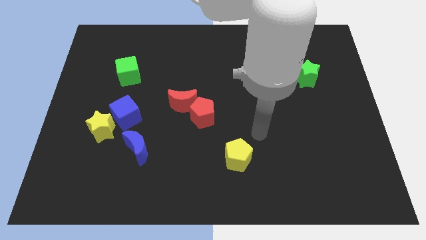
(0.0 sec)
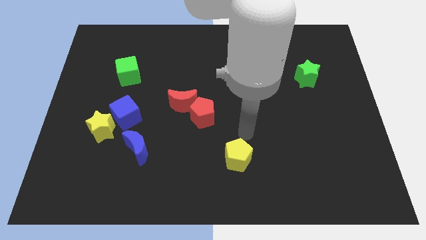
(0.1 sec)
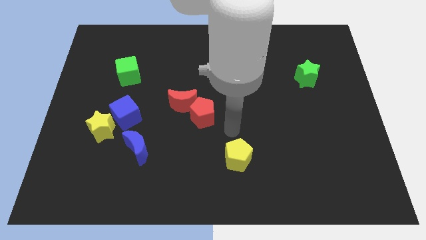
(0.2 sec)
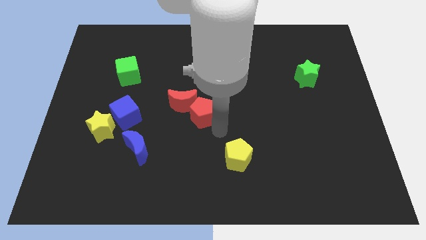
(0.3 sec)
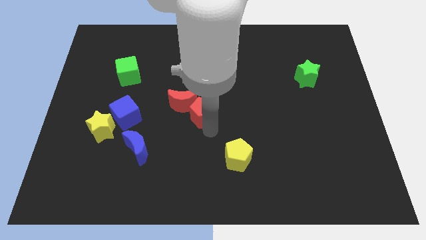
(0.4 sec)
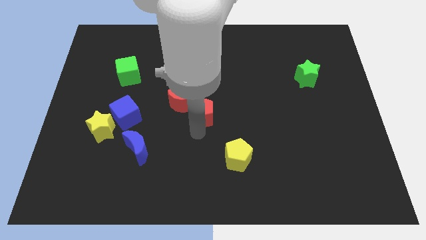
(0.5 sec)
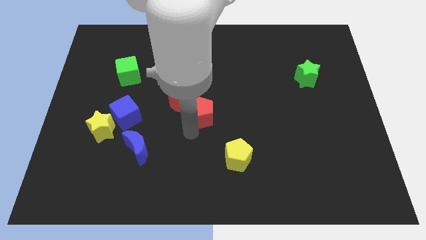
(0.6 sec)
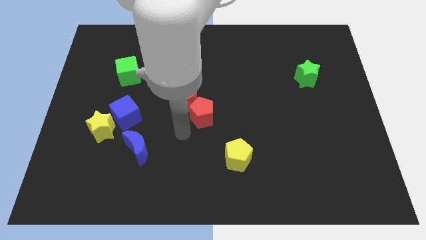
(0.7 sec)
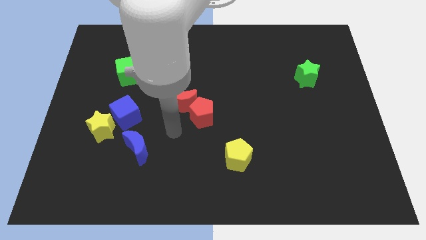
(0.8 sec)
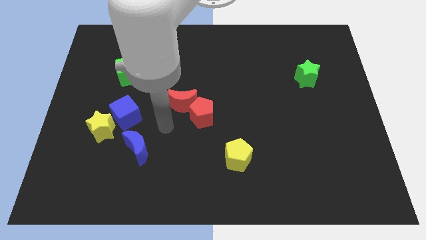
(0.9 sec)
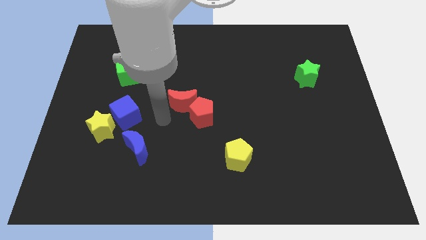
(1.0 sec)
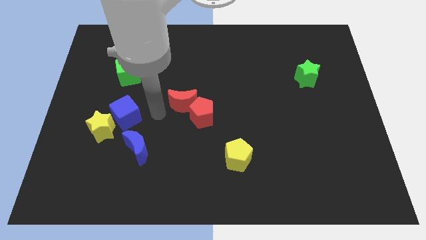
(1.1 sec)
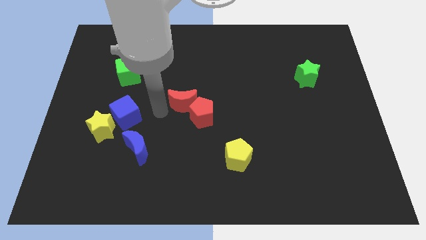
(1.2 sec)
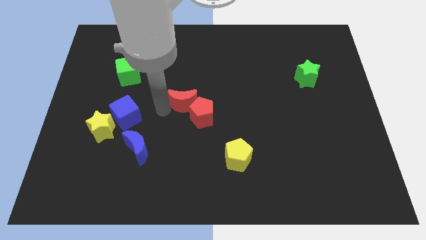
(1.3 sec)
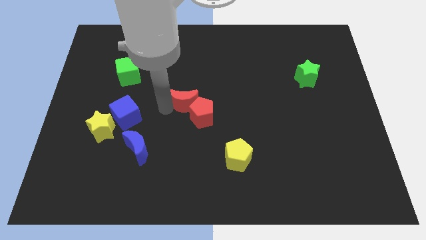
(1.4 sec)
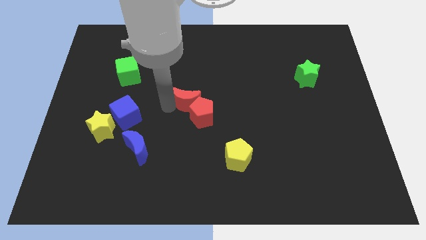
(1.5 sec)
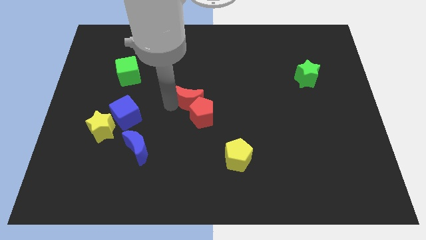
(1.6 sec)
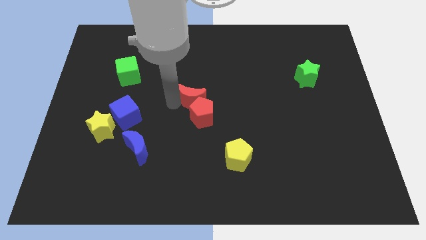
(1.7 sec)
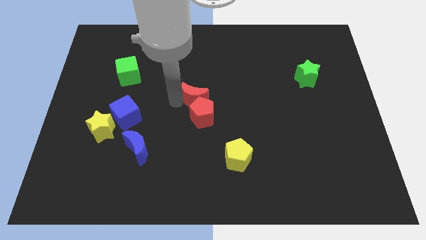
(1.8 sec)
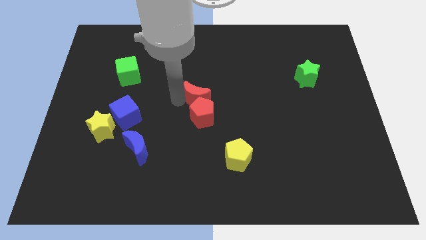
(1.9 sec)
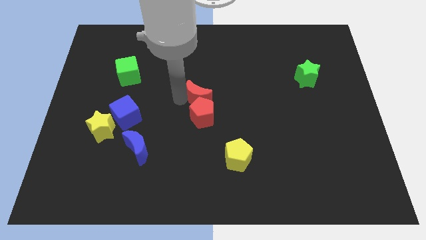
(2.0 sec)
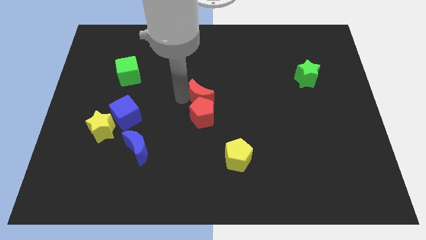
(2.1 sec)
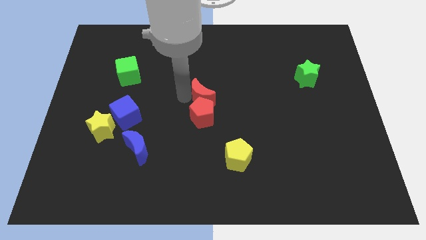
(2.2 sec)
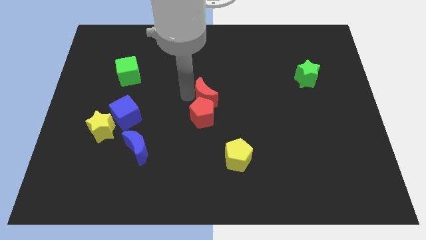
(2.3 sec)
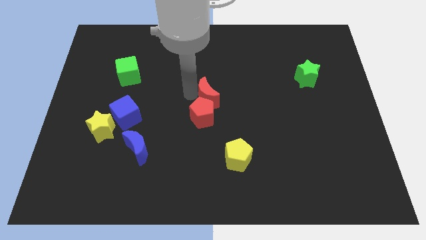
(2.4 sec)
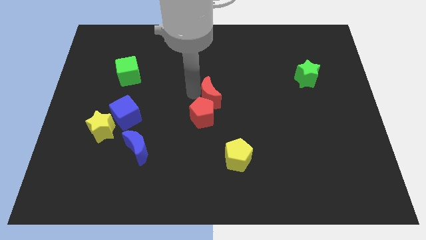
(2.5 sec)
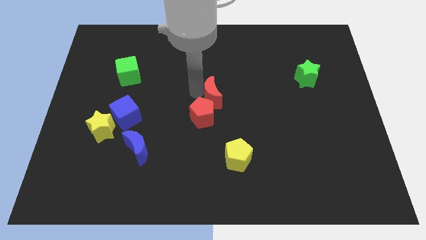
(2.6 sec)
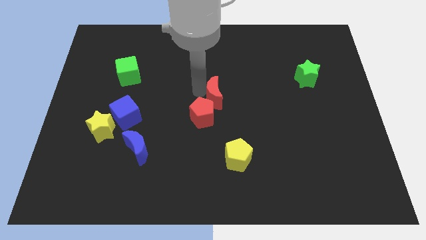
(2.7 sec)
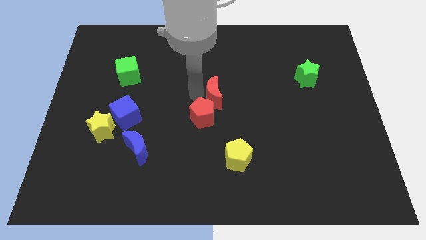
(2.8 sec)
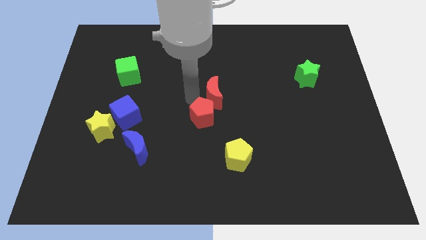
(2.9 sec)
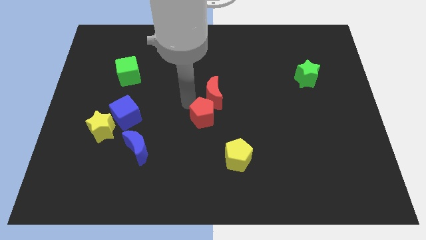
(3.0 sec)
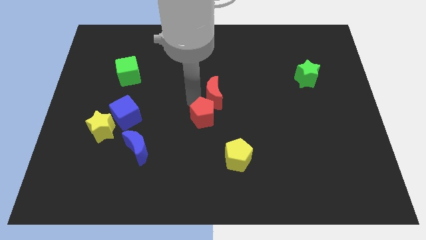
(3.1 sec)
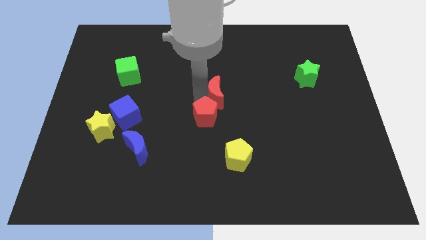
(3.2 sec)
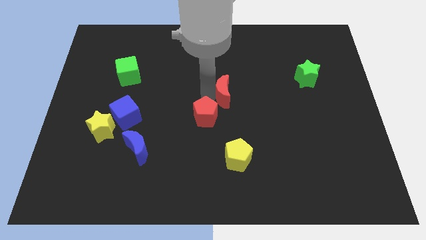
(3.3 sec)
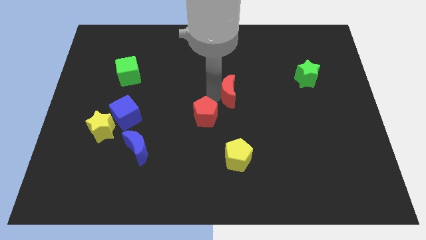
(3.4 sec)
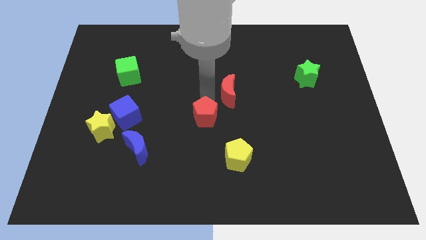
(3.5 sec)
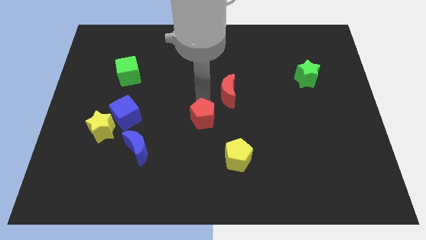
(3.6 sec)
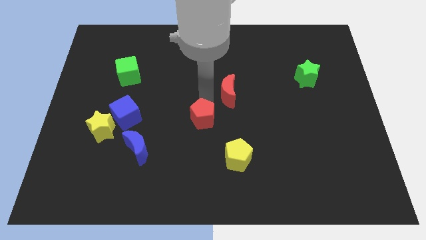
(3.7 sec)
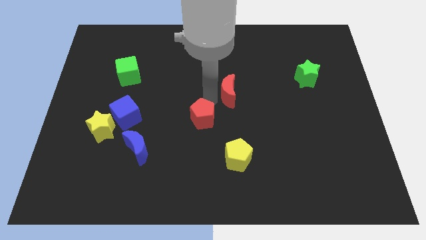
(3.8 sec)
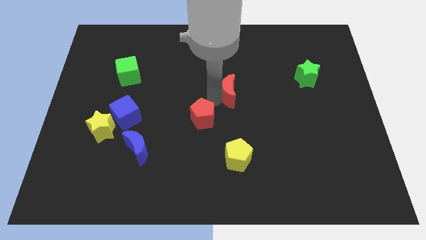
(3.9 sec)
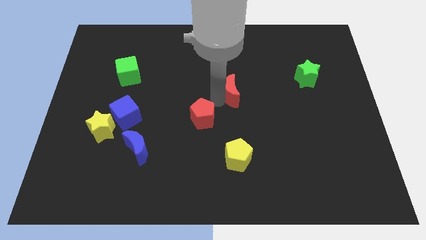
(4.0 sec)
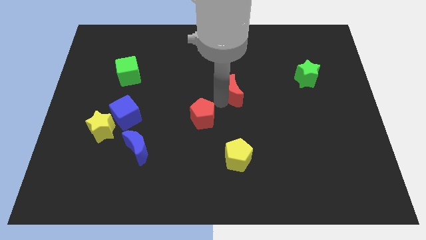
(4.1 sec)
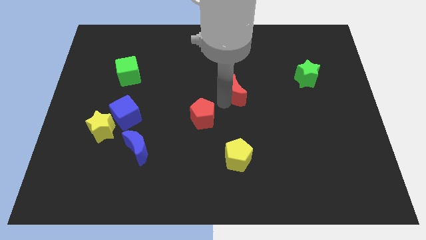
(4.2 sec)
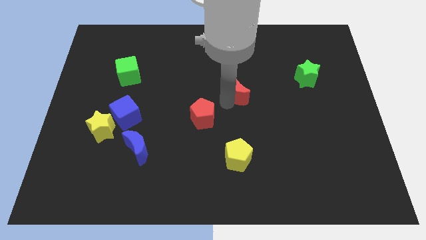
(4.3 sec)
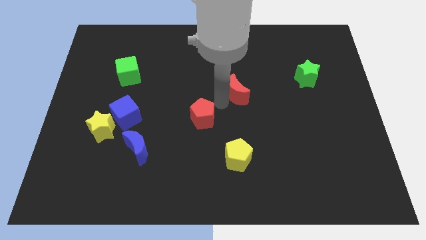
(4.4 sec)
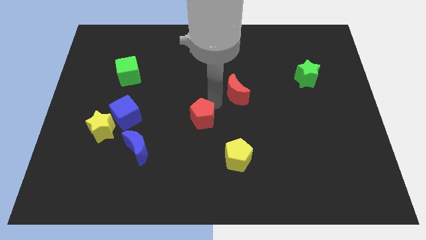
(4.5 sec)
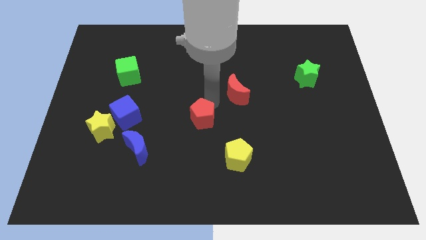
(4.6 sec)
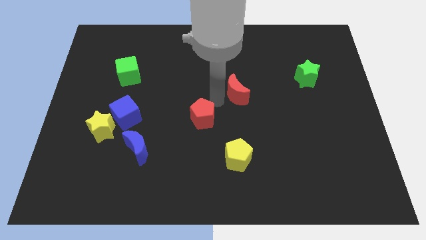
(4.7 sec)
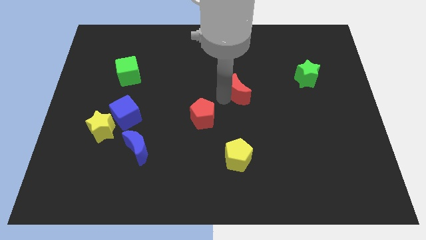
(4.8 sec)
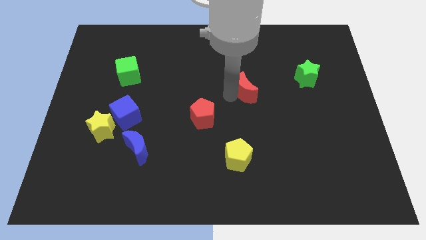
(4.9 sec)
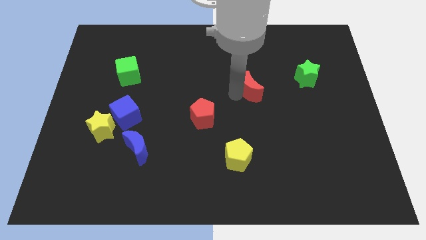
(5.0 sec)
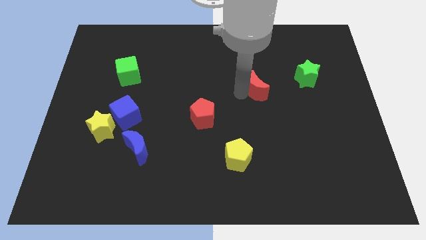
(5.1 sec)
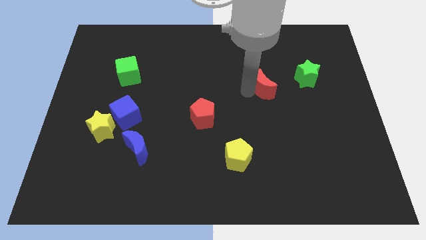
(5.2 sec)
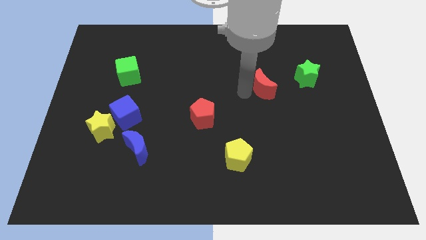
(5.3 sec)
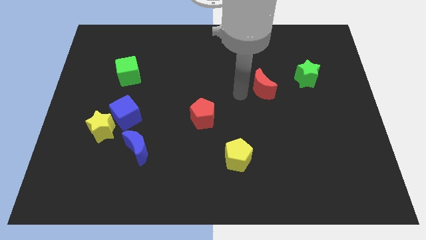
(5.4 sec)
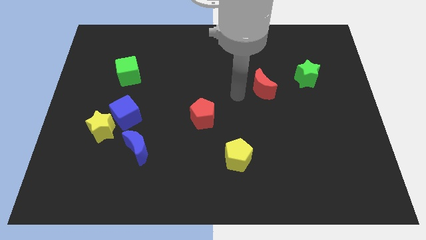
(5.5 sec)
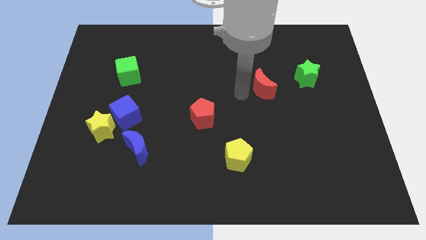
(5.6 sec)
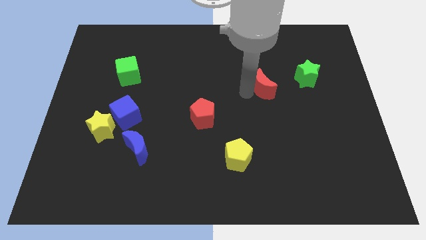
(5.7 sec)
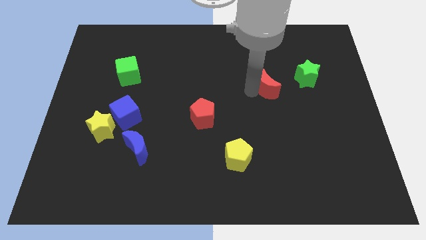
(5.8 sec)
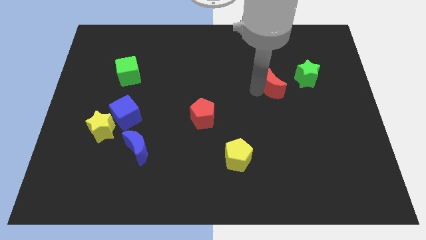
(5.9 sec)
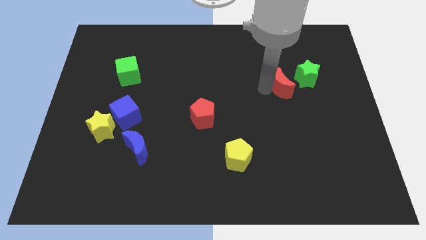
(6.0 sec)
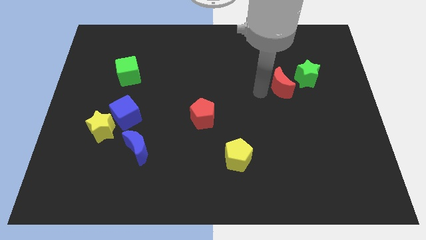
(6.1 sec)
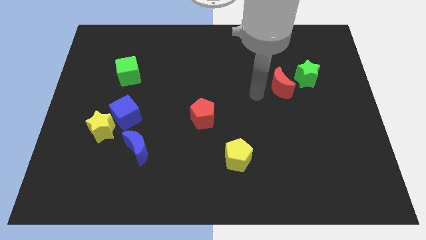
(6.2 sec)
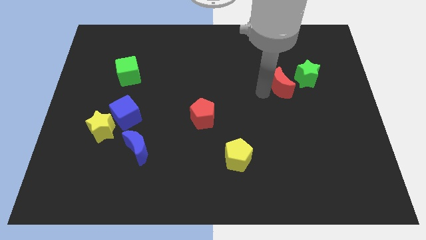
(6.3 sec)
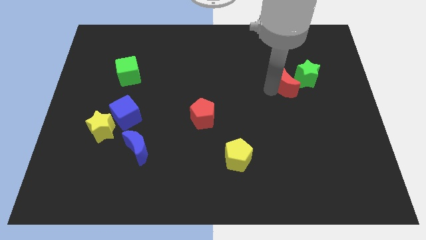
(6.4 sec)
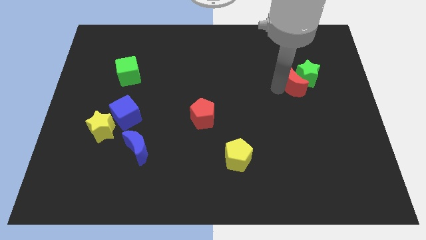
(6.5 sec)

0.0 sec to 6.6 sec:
move the red moon towards the green star

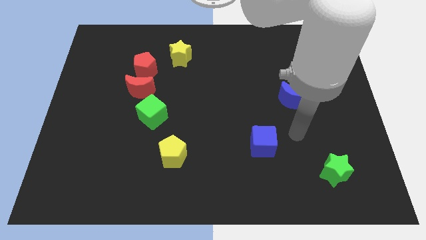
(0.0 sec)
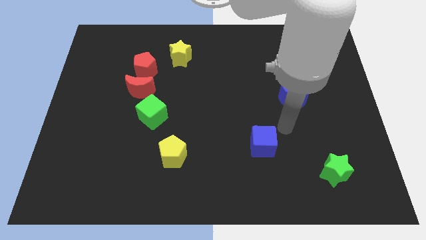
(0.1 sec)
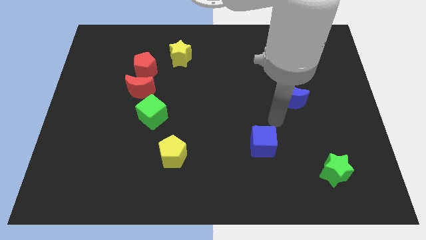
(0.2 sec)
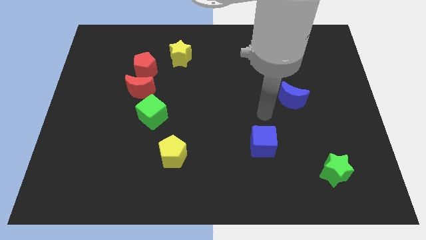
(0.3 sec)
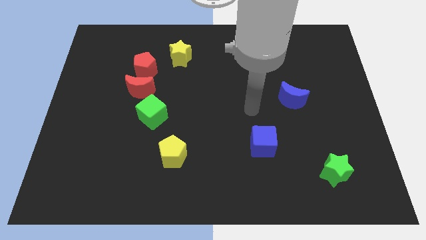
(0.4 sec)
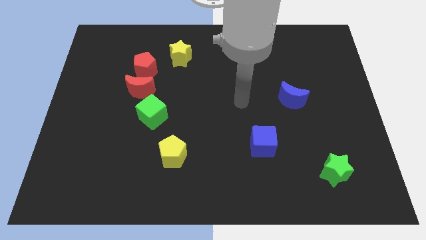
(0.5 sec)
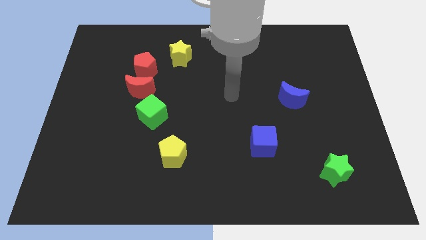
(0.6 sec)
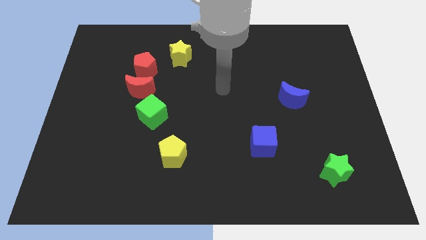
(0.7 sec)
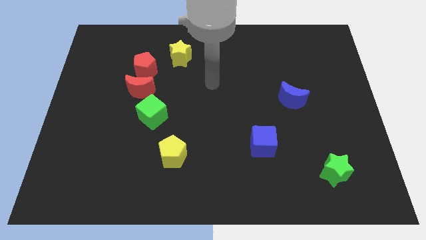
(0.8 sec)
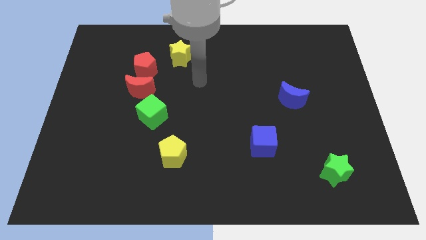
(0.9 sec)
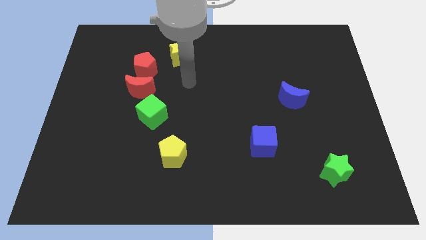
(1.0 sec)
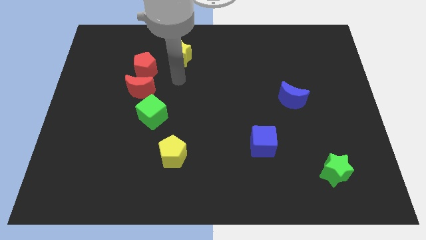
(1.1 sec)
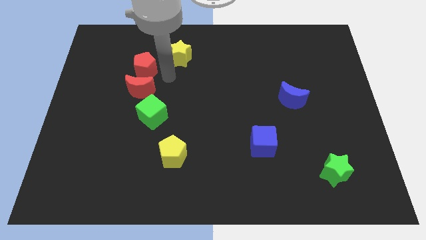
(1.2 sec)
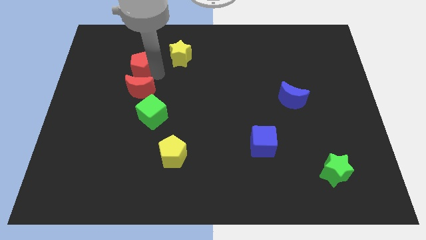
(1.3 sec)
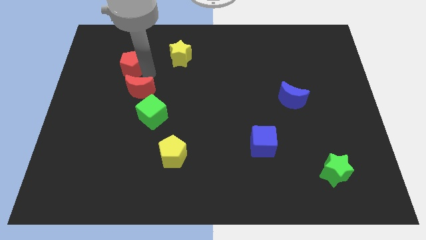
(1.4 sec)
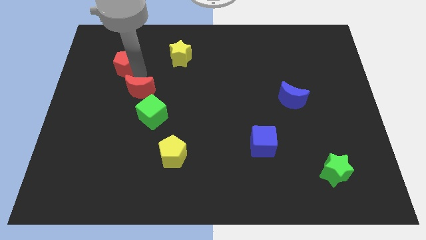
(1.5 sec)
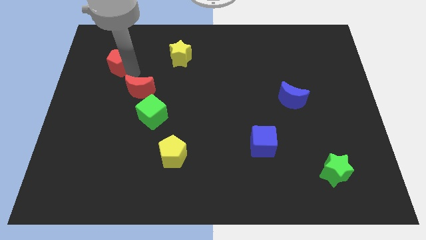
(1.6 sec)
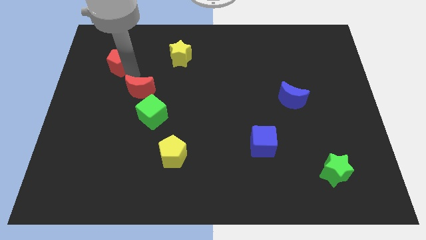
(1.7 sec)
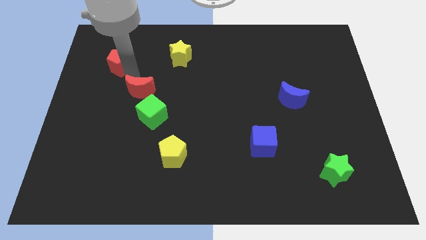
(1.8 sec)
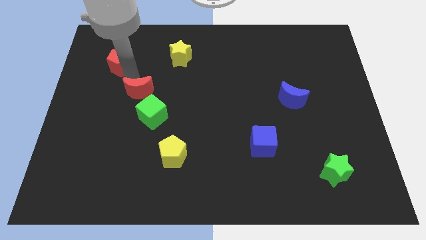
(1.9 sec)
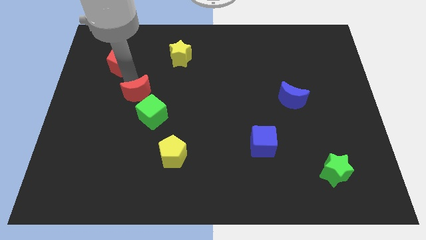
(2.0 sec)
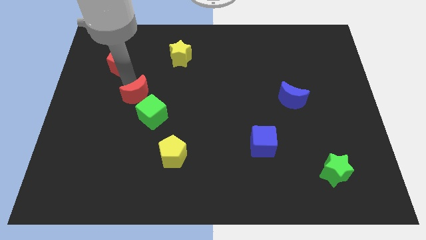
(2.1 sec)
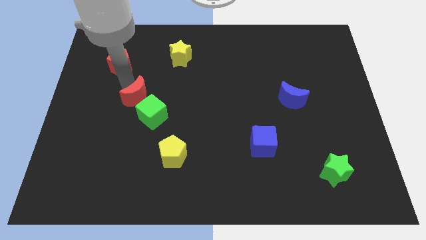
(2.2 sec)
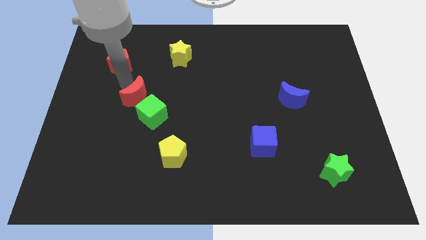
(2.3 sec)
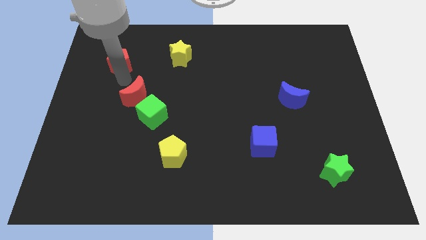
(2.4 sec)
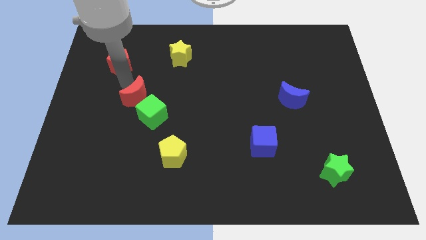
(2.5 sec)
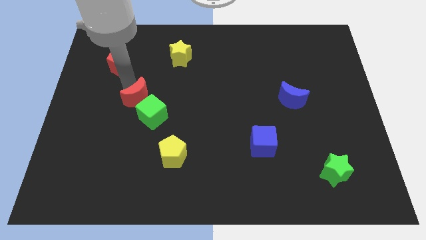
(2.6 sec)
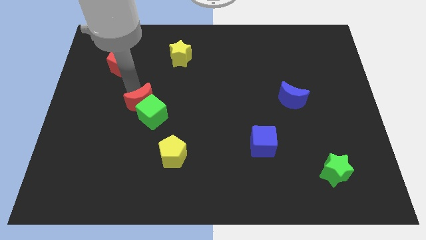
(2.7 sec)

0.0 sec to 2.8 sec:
push the red moon next to the green cube
